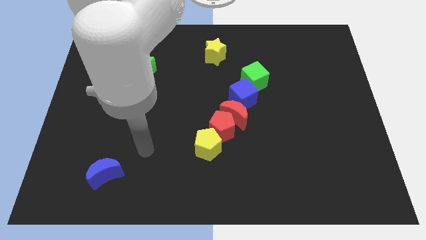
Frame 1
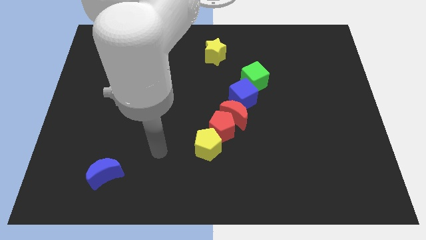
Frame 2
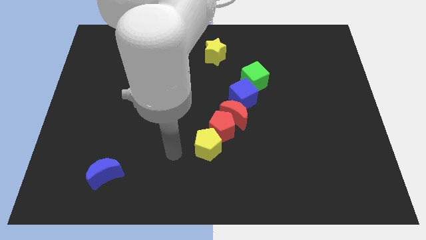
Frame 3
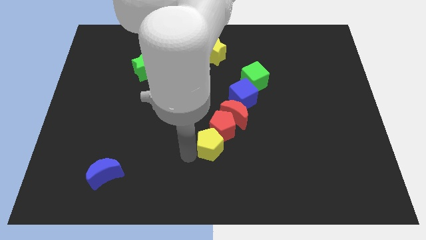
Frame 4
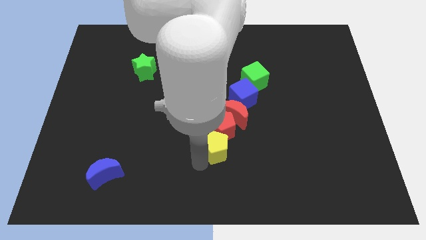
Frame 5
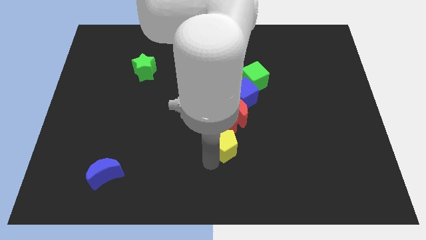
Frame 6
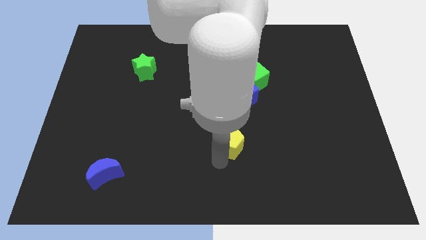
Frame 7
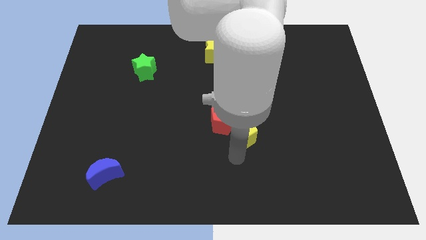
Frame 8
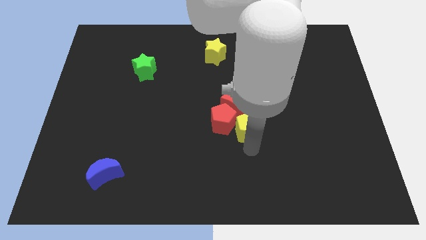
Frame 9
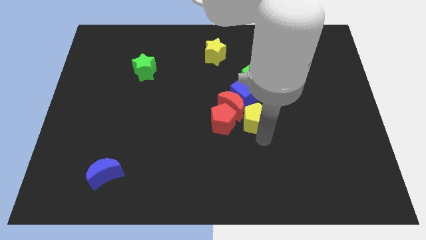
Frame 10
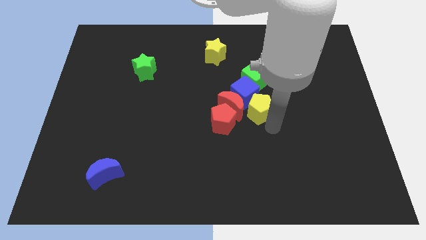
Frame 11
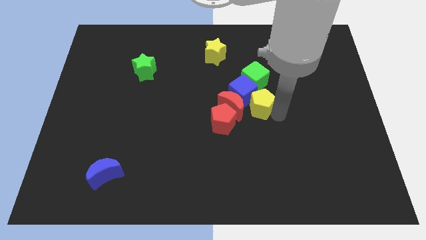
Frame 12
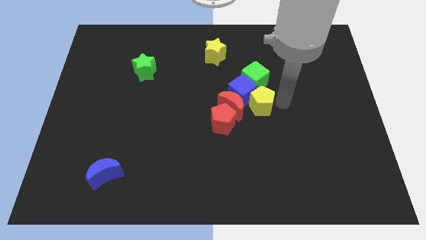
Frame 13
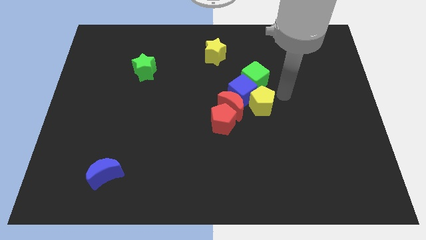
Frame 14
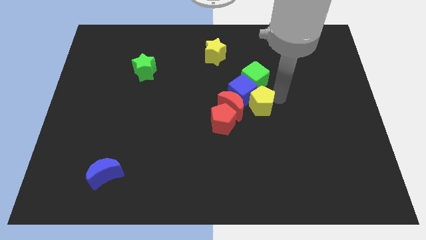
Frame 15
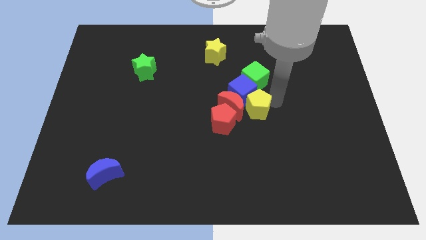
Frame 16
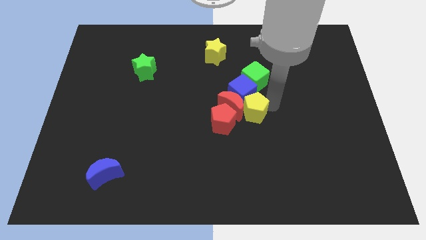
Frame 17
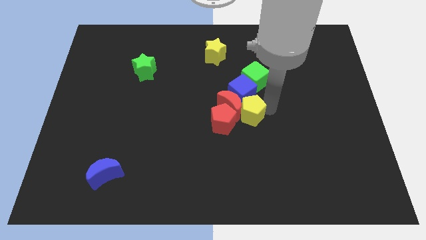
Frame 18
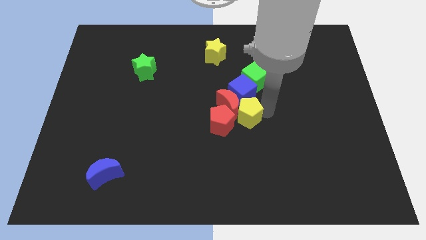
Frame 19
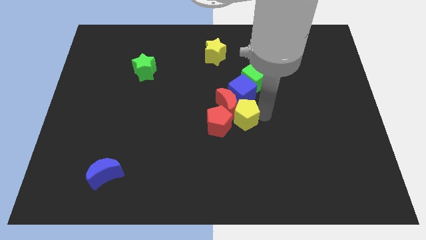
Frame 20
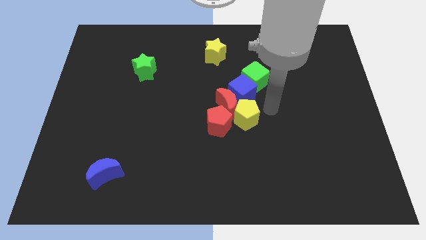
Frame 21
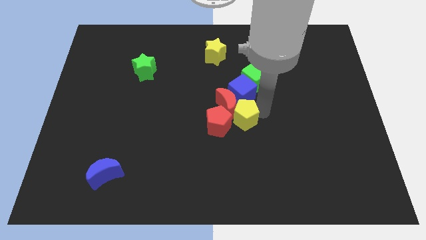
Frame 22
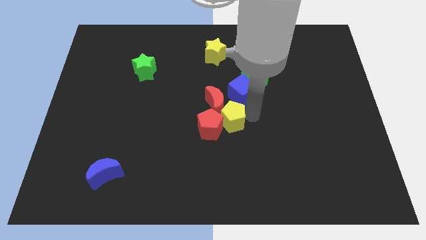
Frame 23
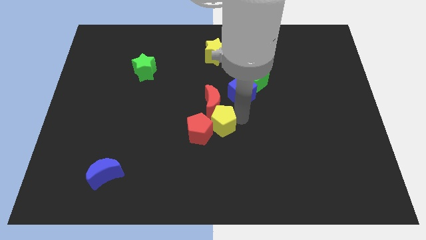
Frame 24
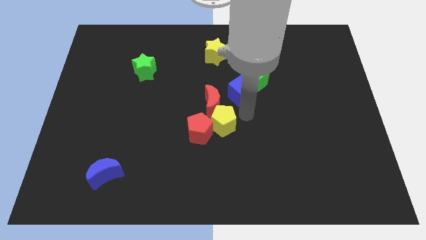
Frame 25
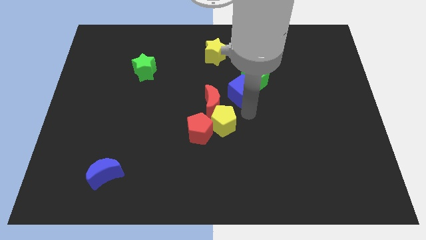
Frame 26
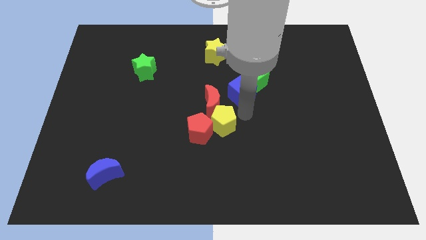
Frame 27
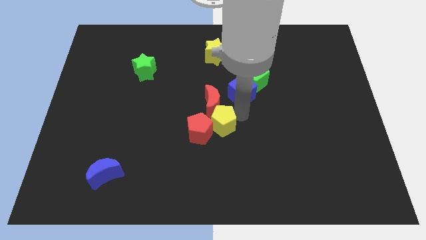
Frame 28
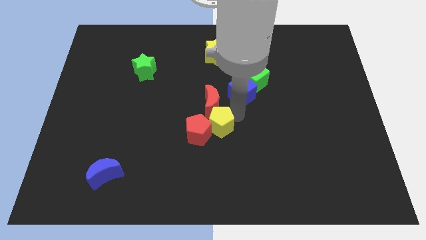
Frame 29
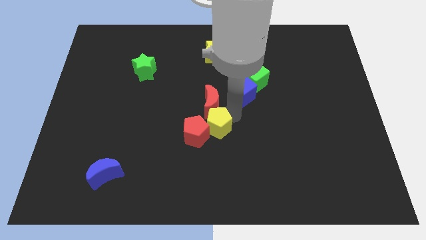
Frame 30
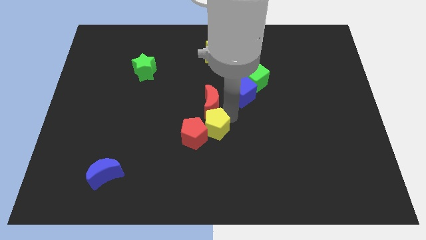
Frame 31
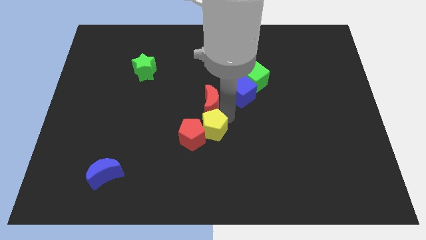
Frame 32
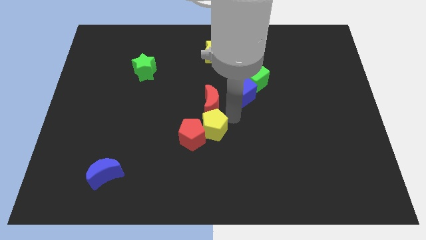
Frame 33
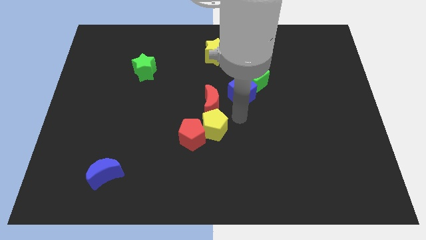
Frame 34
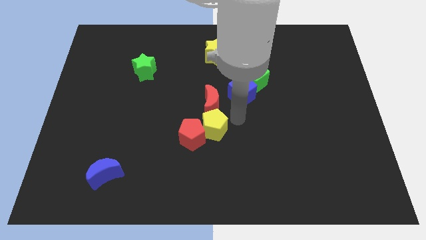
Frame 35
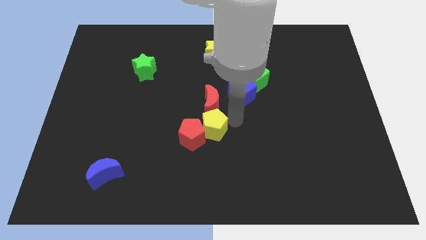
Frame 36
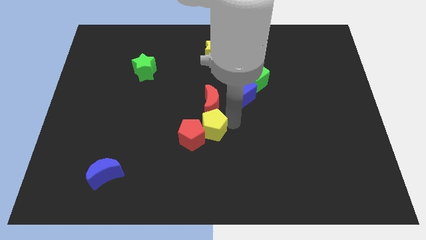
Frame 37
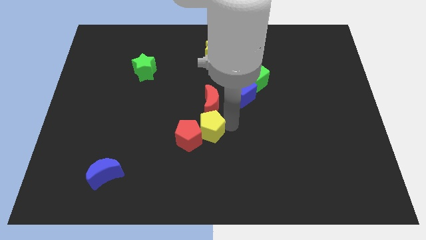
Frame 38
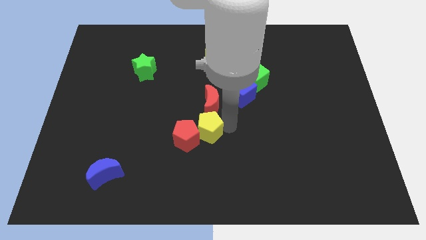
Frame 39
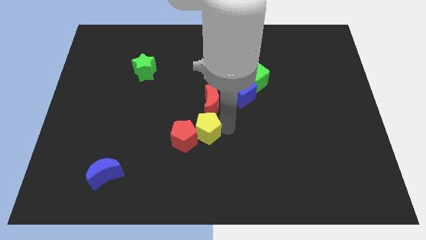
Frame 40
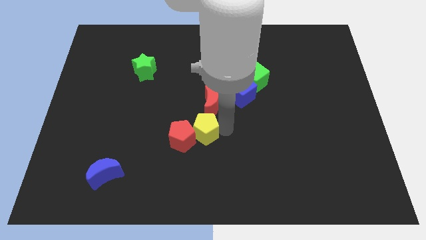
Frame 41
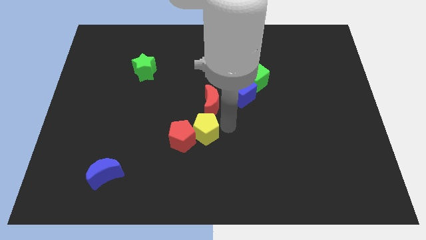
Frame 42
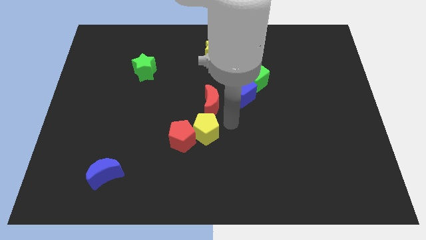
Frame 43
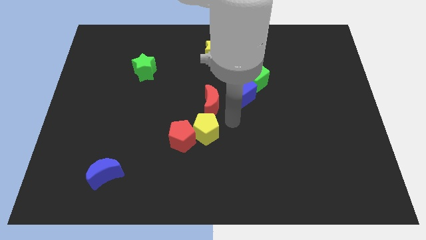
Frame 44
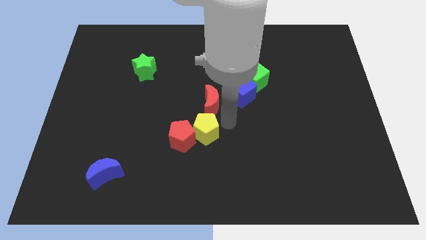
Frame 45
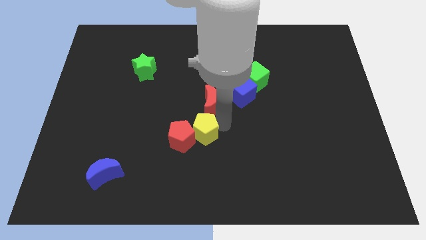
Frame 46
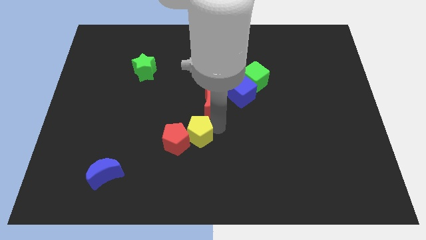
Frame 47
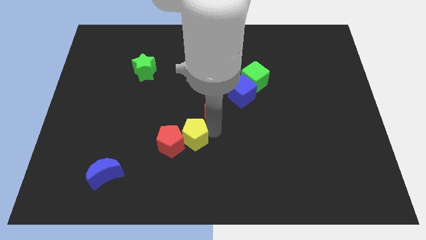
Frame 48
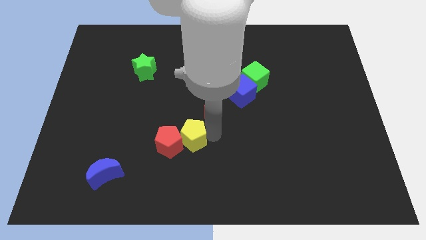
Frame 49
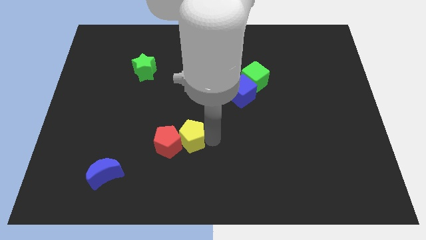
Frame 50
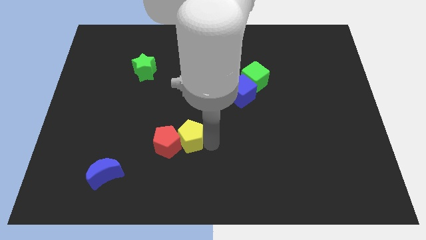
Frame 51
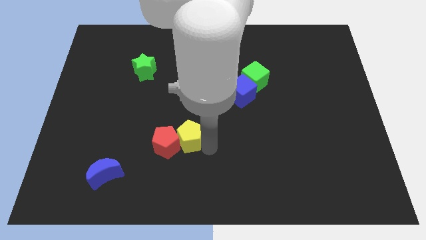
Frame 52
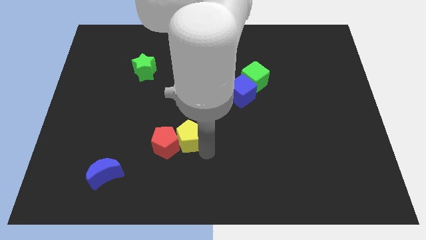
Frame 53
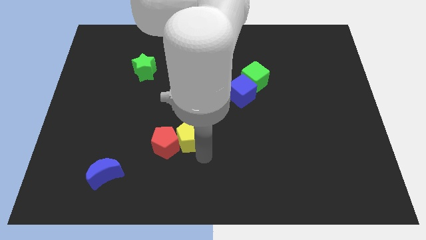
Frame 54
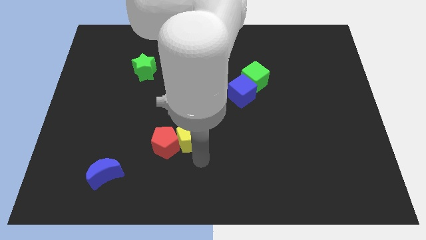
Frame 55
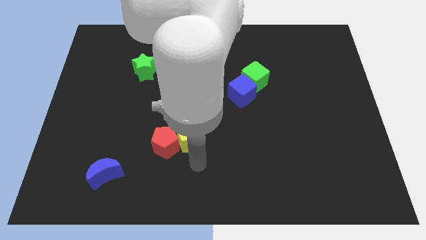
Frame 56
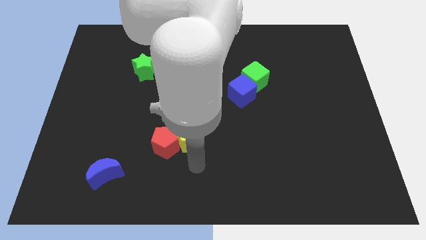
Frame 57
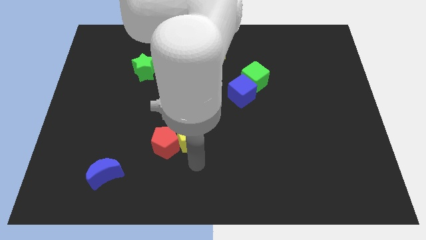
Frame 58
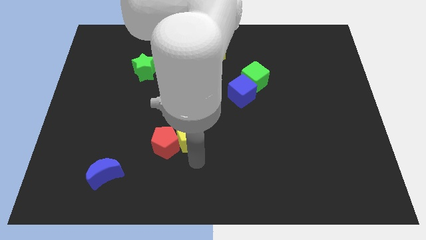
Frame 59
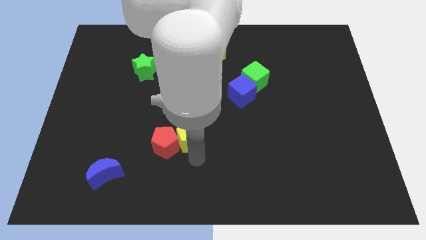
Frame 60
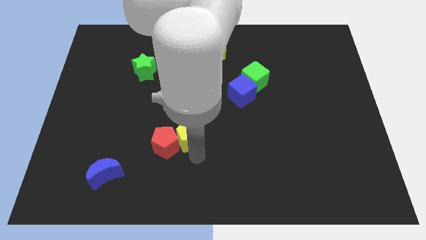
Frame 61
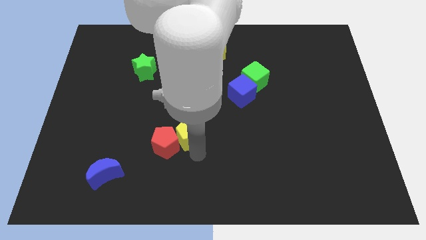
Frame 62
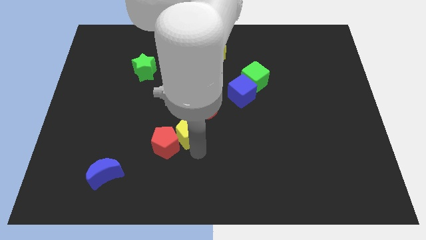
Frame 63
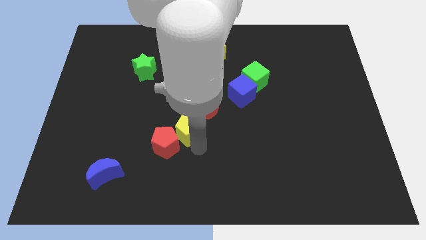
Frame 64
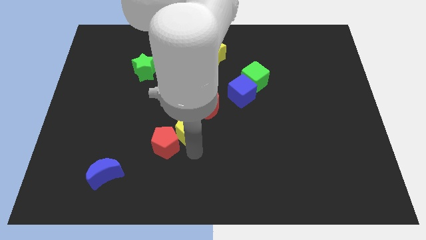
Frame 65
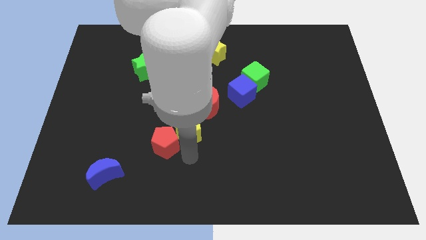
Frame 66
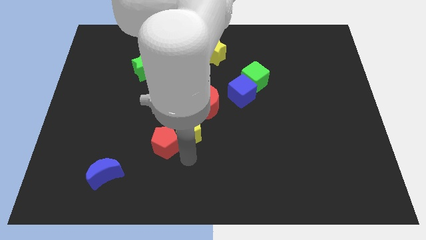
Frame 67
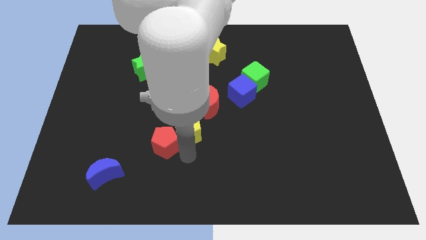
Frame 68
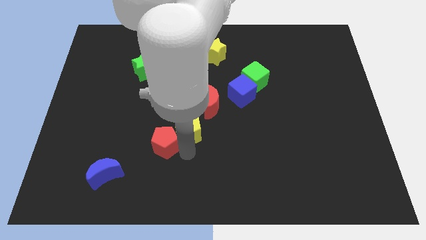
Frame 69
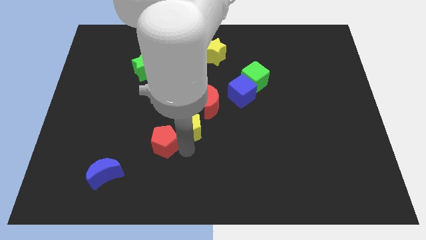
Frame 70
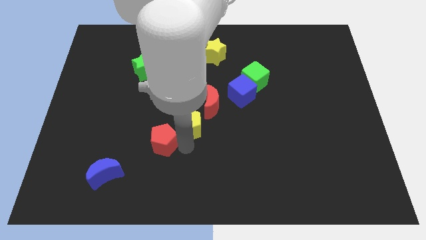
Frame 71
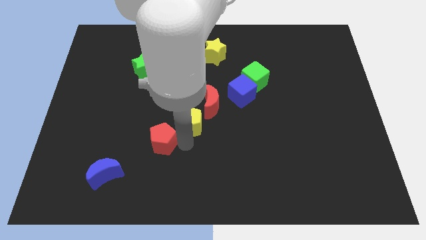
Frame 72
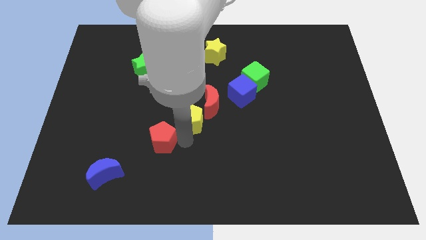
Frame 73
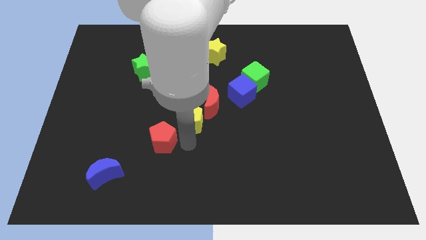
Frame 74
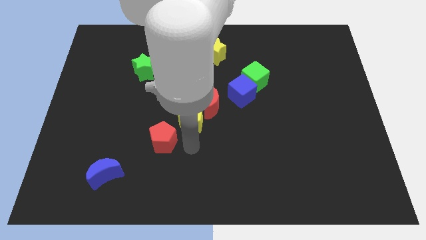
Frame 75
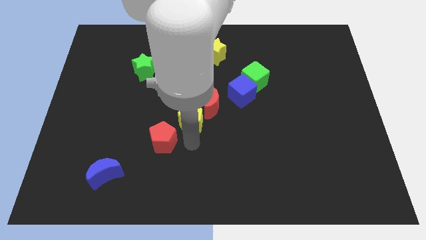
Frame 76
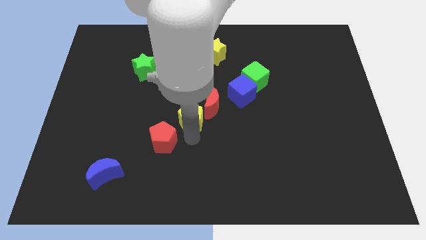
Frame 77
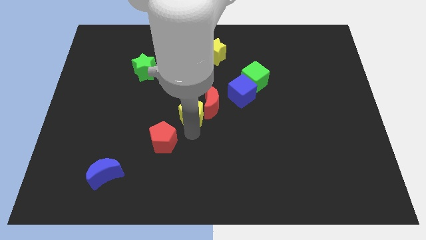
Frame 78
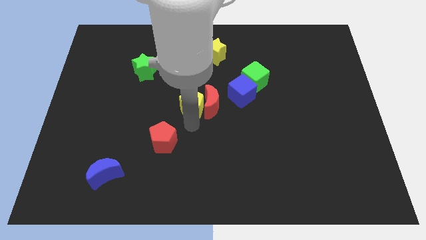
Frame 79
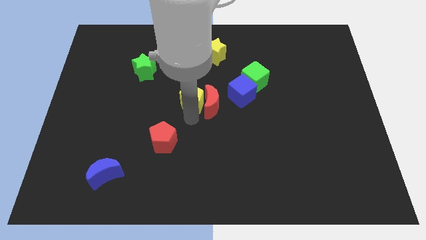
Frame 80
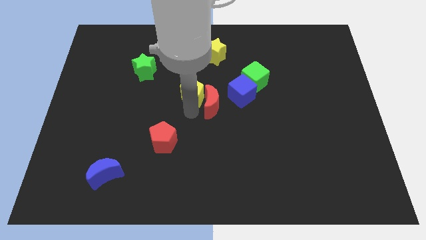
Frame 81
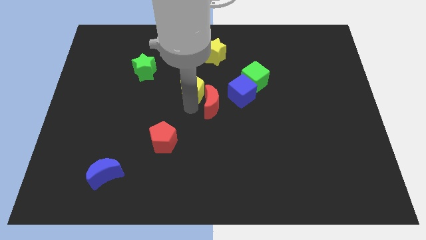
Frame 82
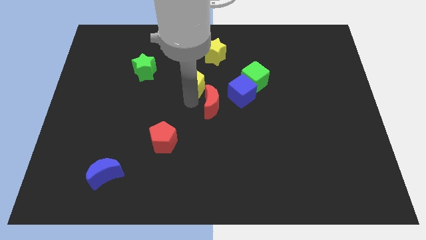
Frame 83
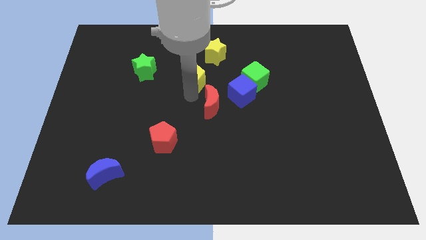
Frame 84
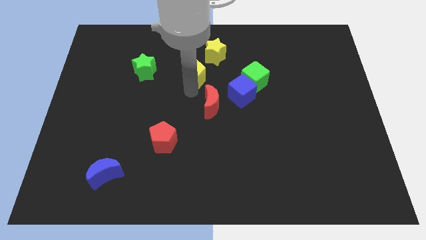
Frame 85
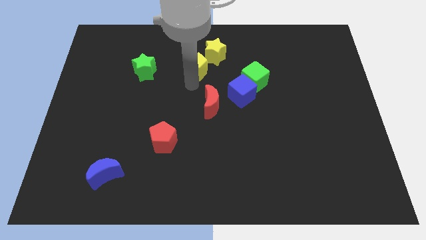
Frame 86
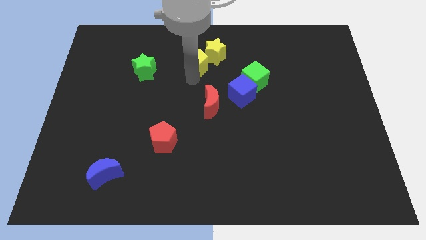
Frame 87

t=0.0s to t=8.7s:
push the yellow pentagon close to the yellow star
